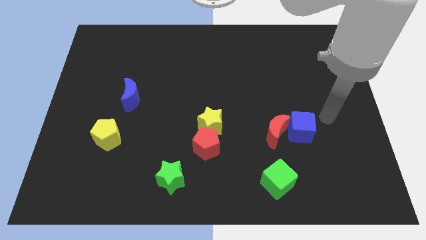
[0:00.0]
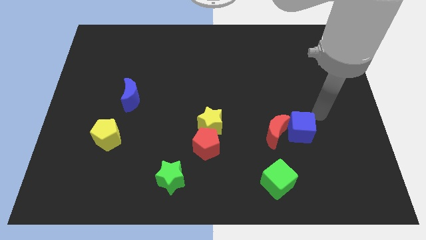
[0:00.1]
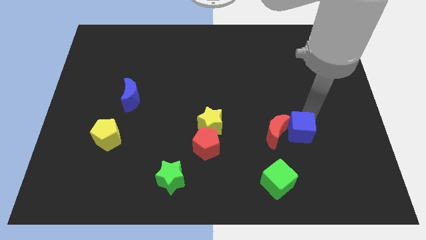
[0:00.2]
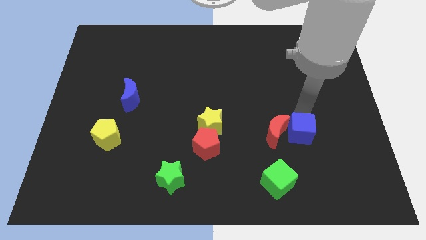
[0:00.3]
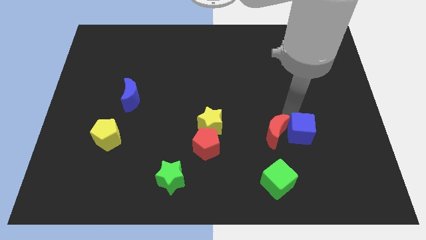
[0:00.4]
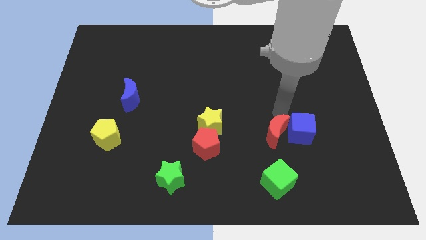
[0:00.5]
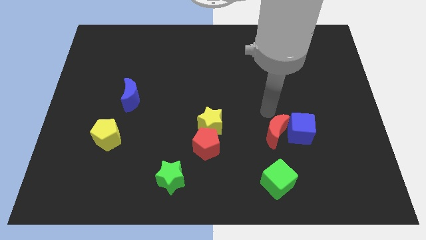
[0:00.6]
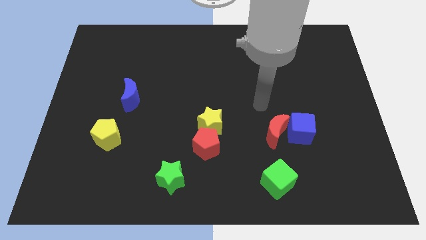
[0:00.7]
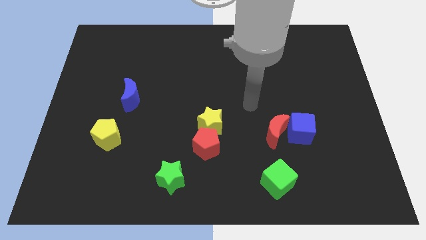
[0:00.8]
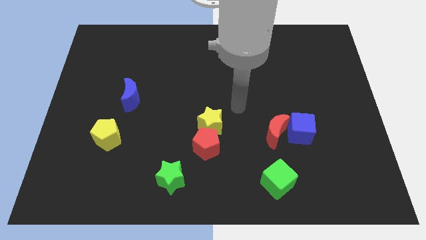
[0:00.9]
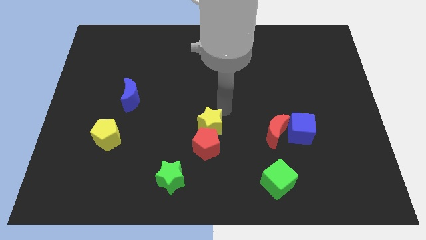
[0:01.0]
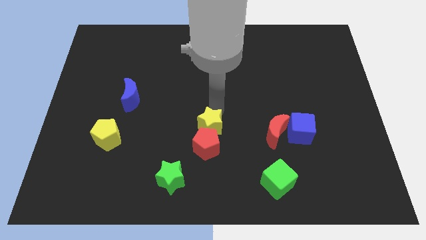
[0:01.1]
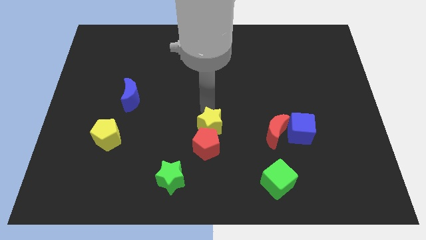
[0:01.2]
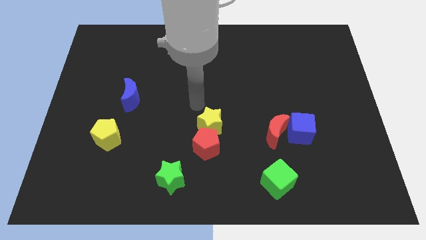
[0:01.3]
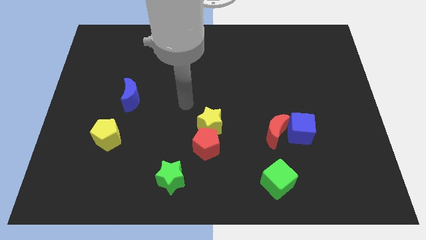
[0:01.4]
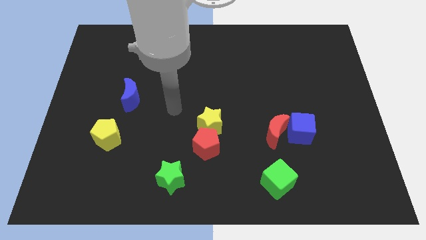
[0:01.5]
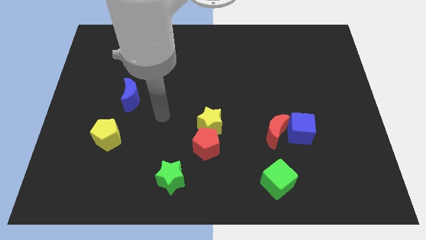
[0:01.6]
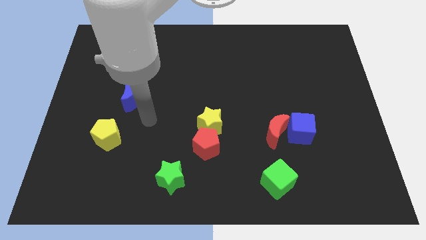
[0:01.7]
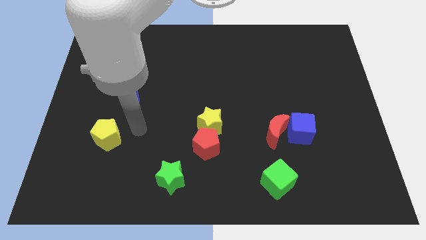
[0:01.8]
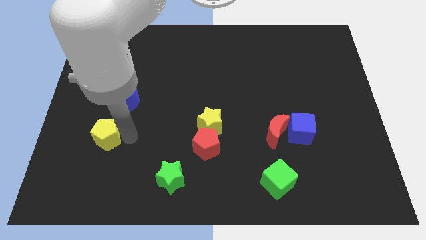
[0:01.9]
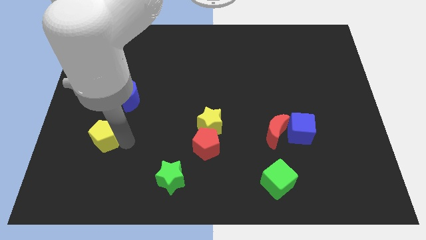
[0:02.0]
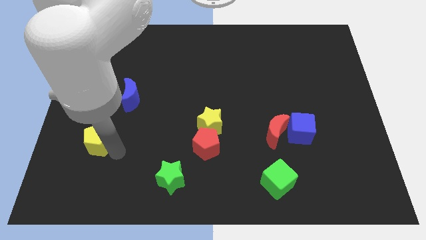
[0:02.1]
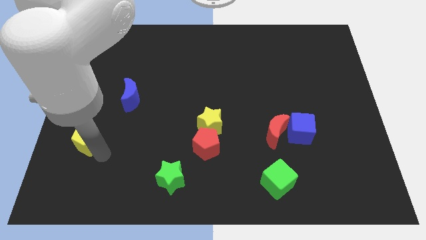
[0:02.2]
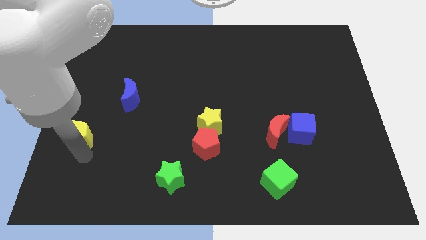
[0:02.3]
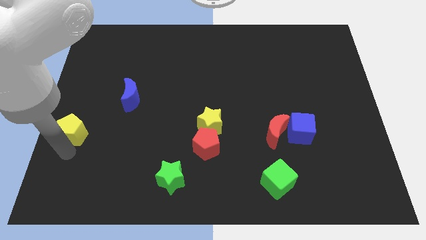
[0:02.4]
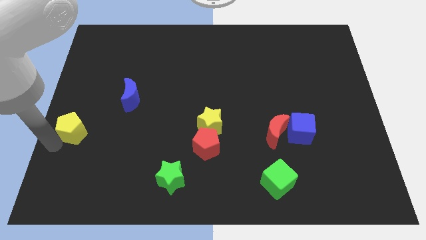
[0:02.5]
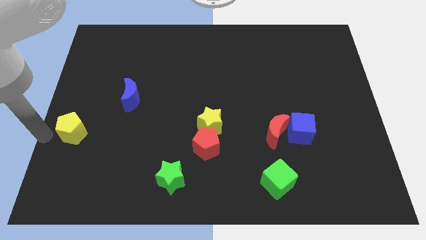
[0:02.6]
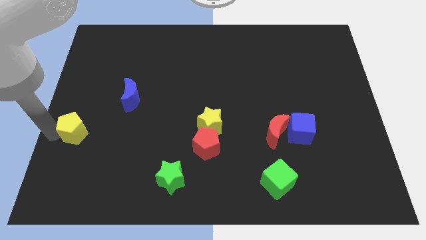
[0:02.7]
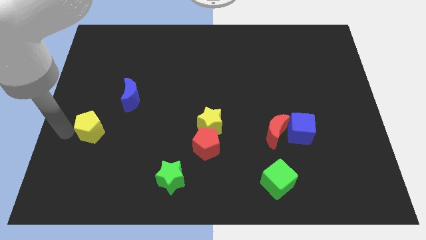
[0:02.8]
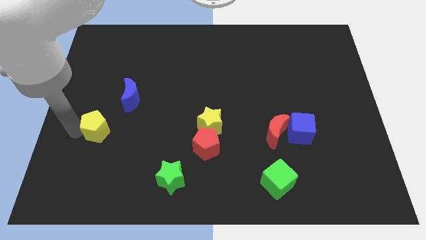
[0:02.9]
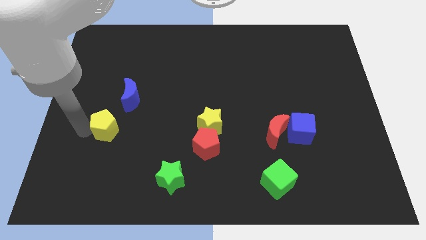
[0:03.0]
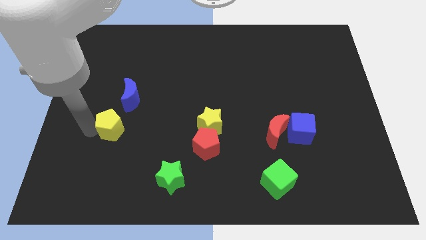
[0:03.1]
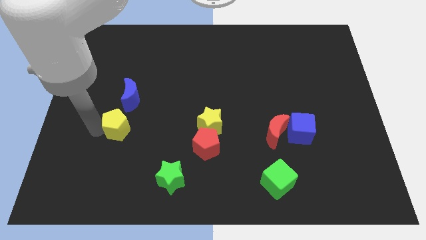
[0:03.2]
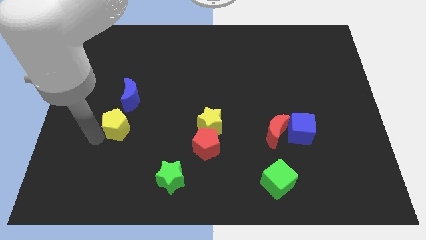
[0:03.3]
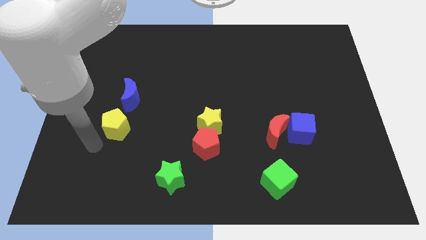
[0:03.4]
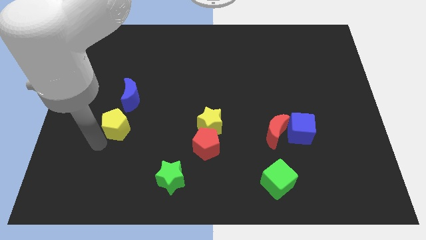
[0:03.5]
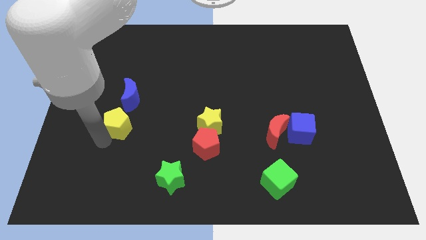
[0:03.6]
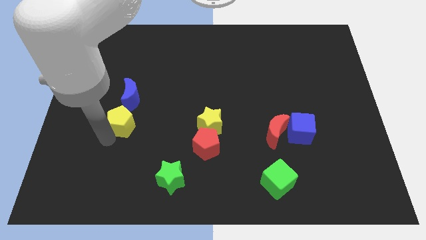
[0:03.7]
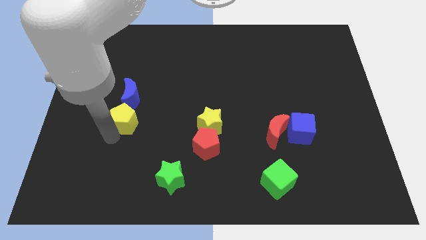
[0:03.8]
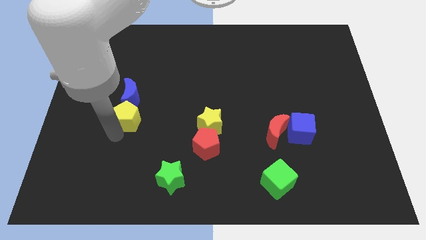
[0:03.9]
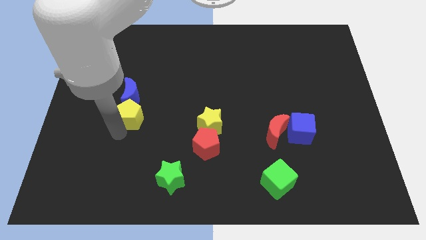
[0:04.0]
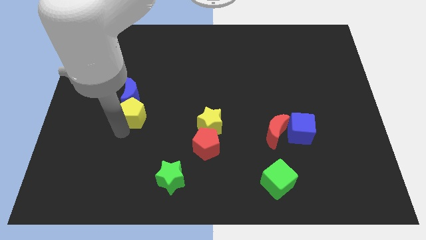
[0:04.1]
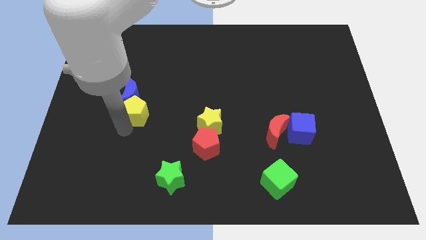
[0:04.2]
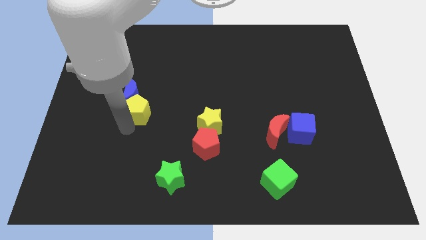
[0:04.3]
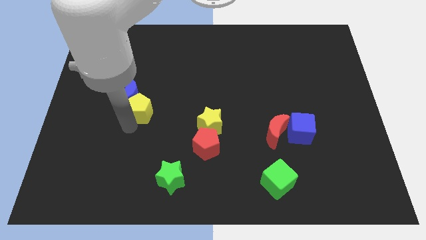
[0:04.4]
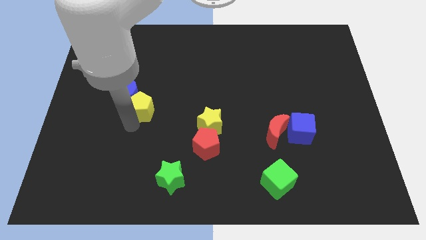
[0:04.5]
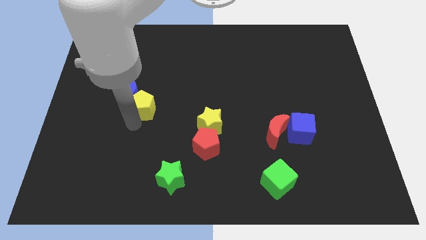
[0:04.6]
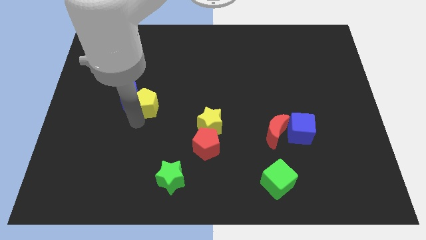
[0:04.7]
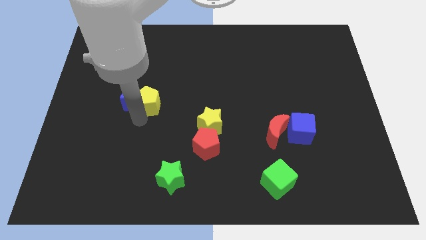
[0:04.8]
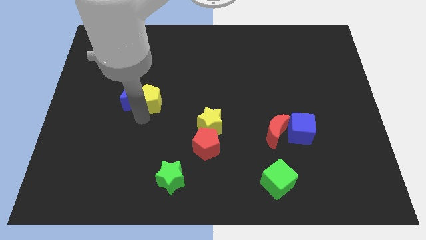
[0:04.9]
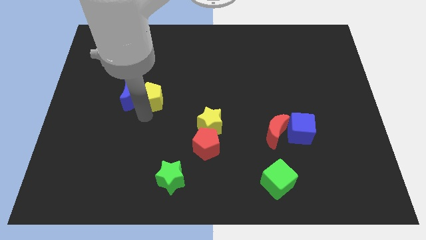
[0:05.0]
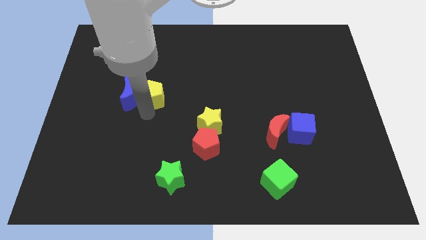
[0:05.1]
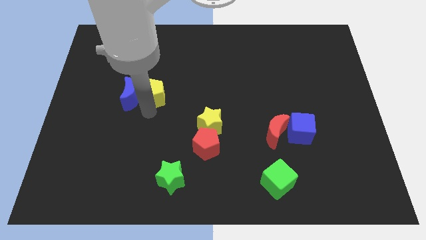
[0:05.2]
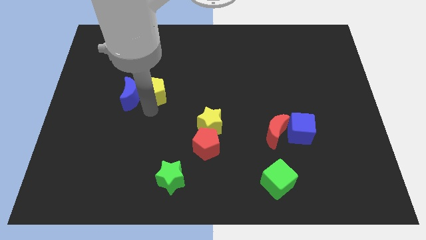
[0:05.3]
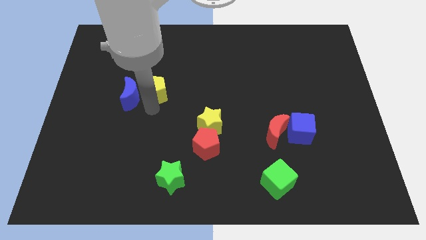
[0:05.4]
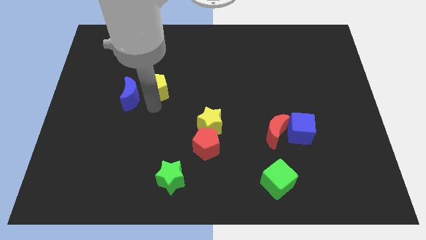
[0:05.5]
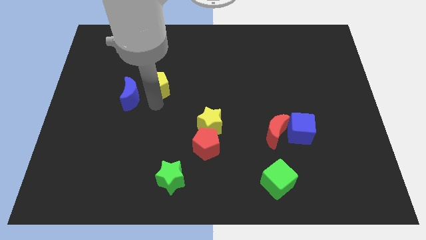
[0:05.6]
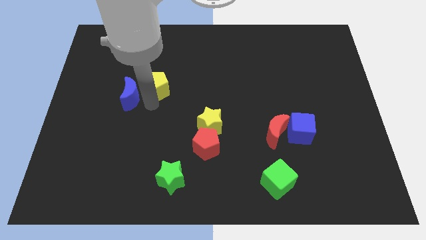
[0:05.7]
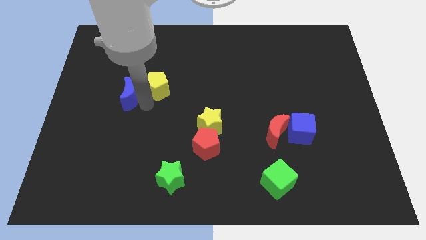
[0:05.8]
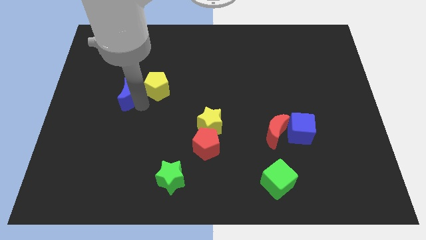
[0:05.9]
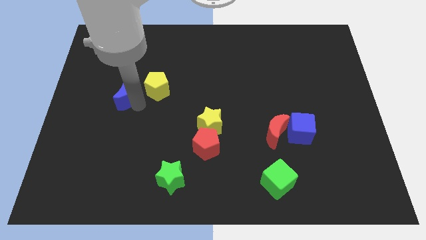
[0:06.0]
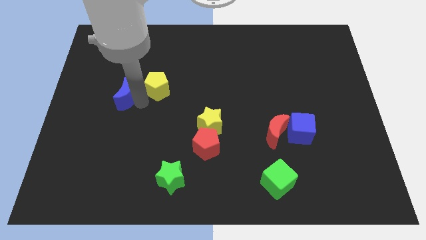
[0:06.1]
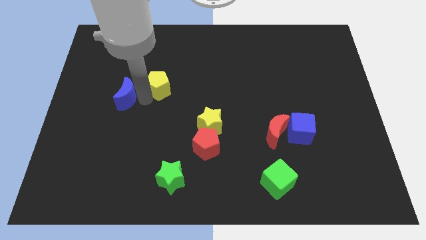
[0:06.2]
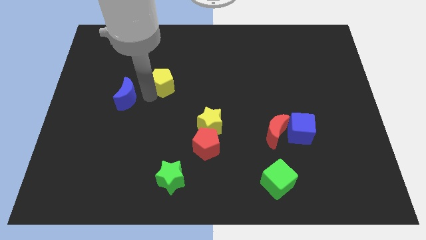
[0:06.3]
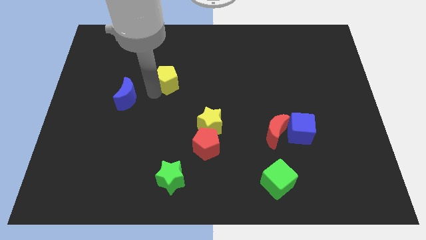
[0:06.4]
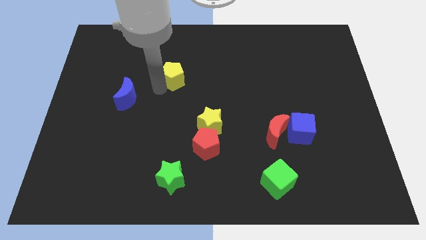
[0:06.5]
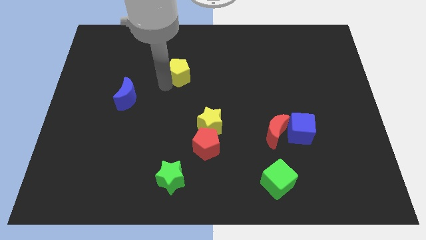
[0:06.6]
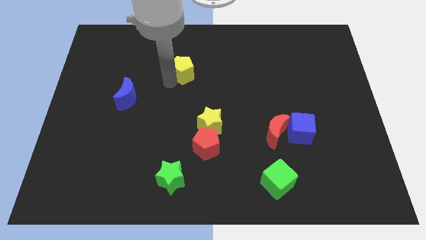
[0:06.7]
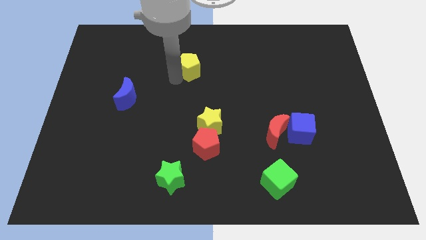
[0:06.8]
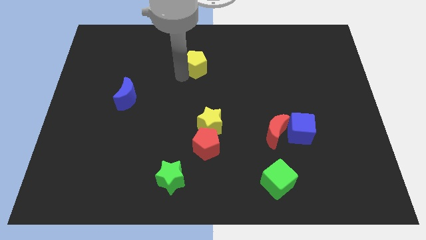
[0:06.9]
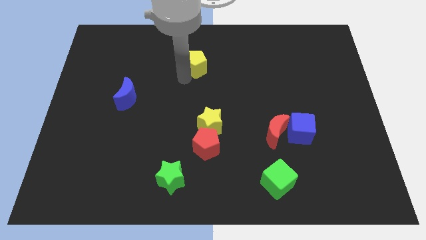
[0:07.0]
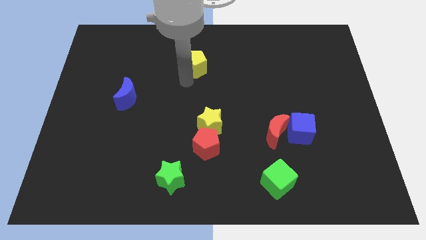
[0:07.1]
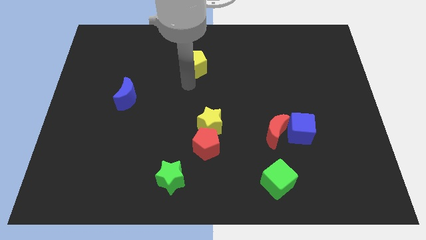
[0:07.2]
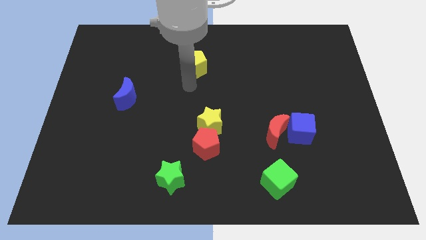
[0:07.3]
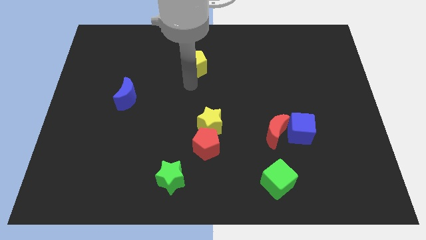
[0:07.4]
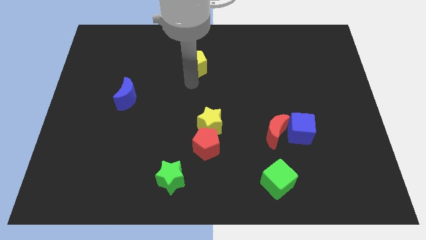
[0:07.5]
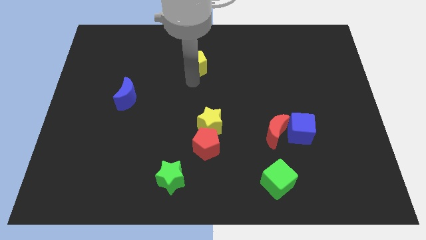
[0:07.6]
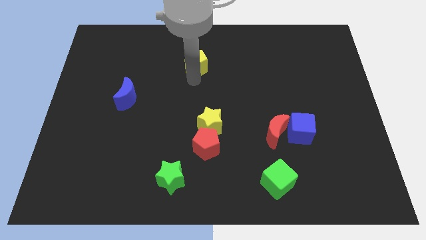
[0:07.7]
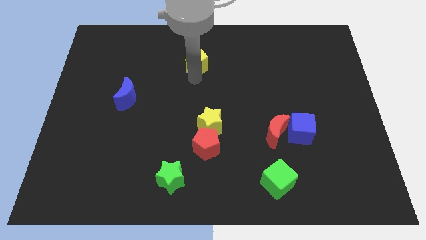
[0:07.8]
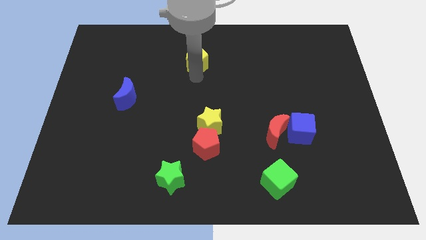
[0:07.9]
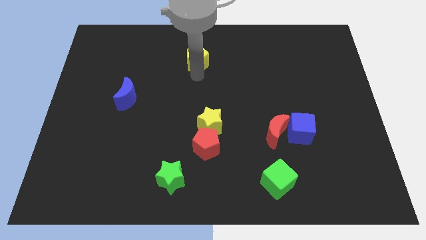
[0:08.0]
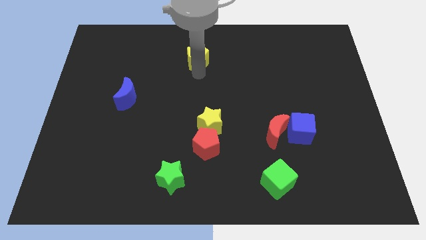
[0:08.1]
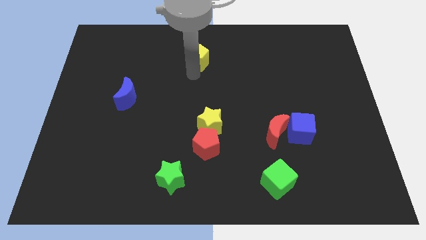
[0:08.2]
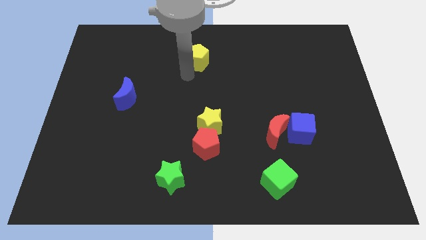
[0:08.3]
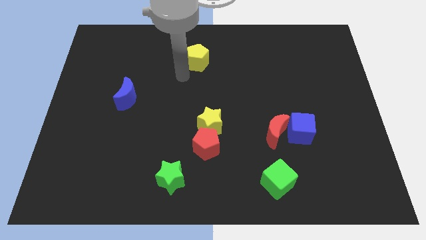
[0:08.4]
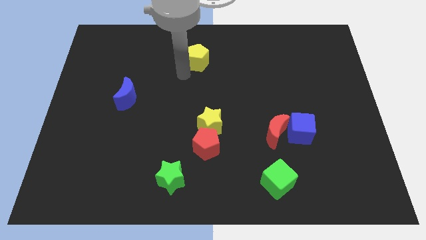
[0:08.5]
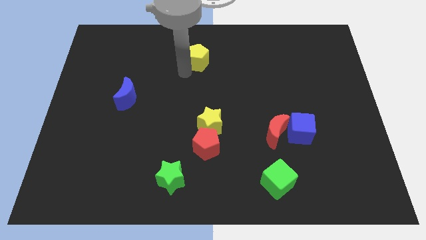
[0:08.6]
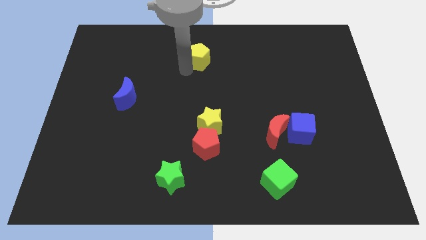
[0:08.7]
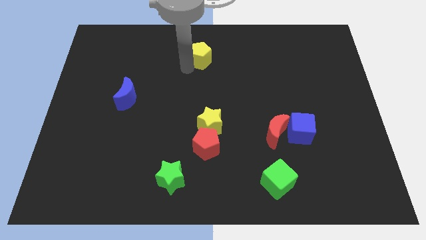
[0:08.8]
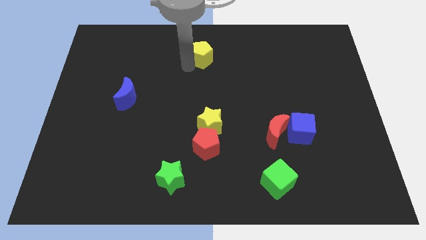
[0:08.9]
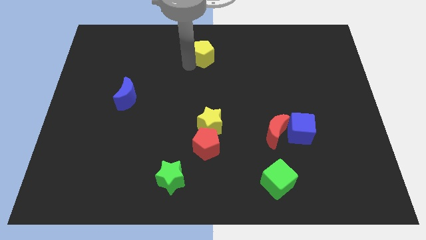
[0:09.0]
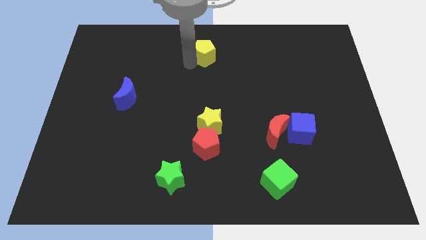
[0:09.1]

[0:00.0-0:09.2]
put the yellow pentagon to the towards your base
